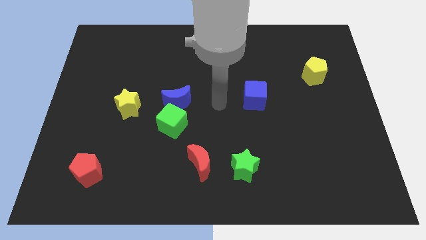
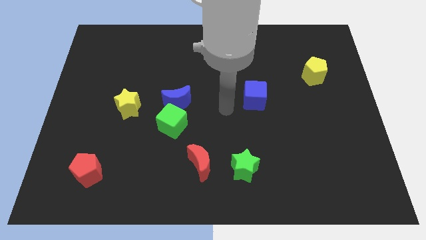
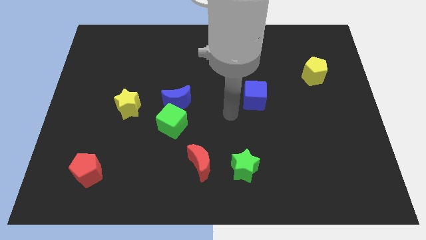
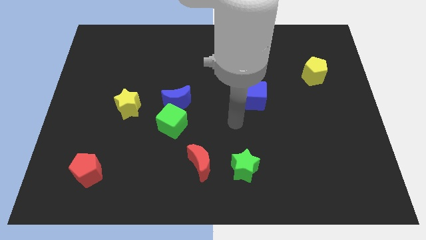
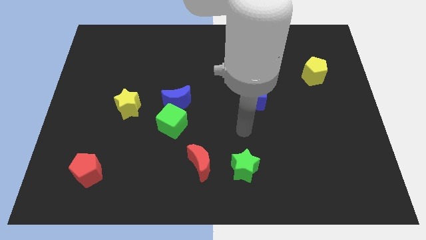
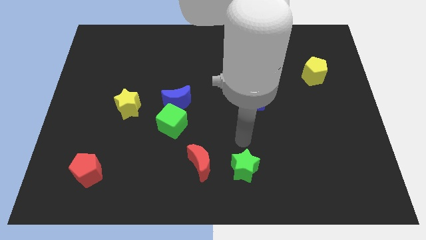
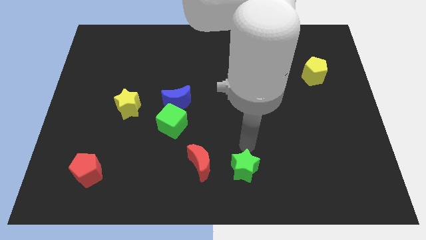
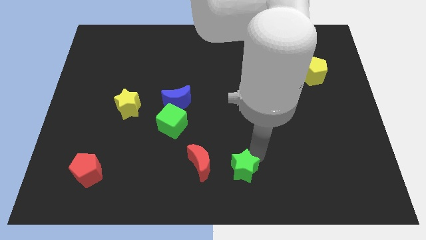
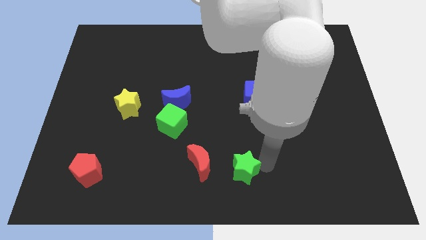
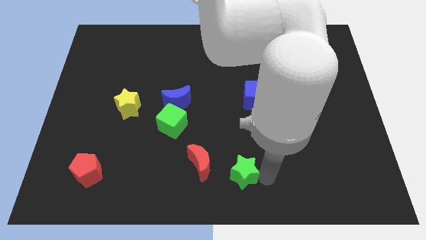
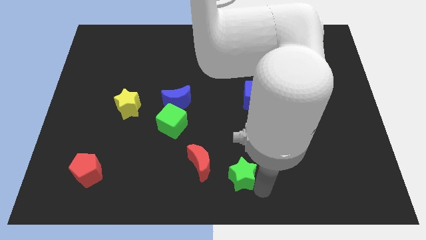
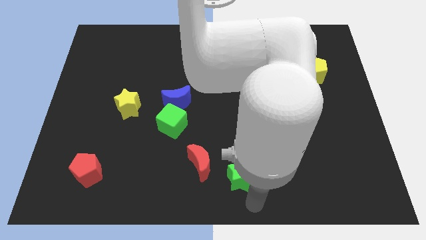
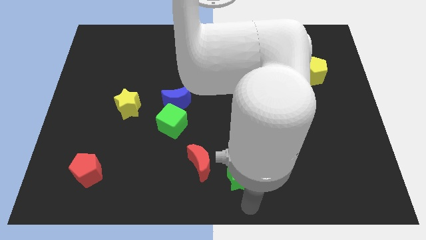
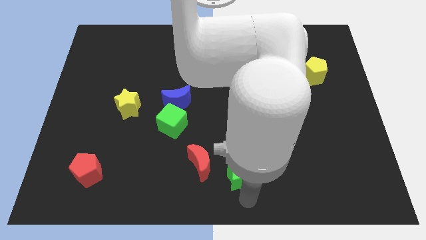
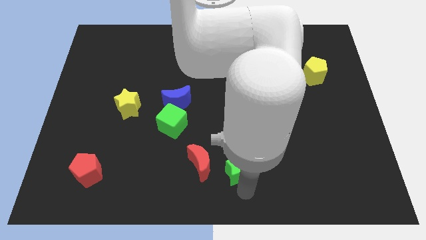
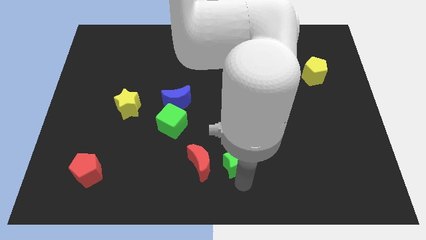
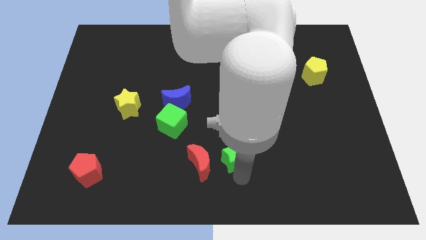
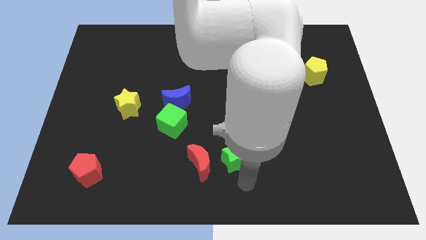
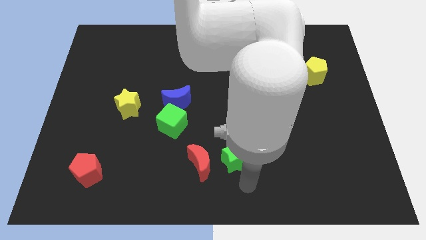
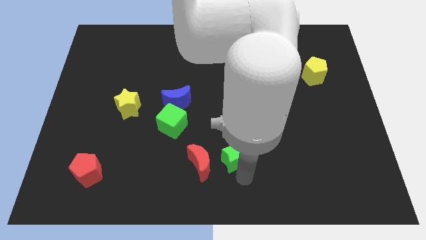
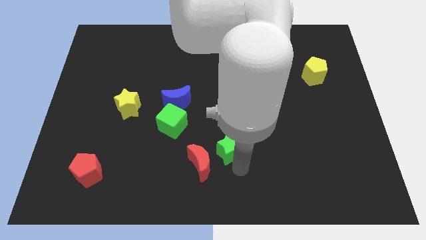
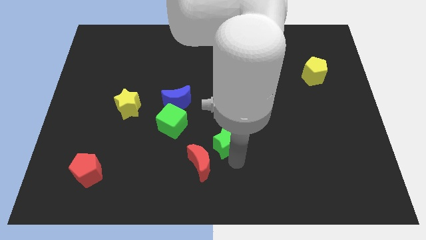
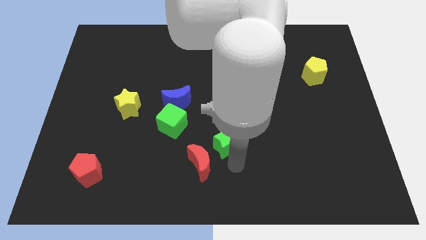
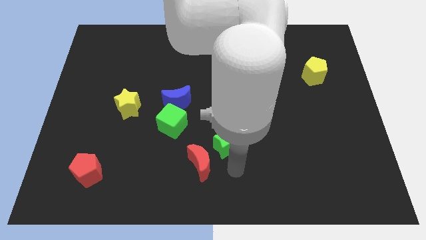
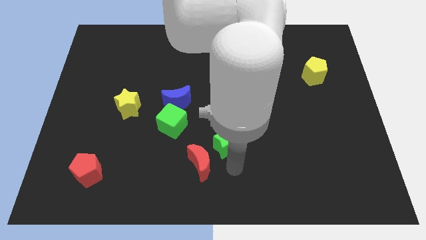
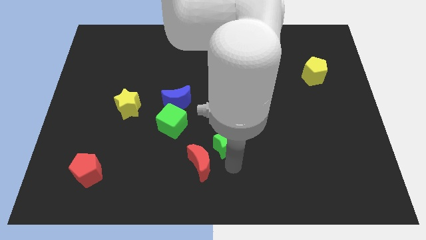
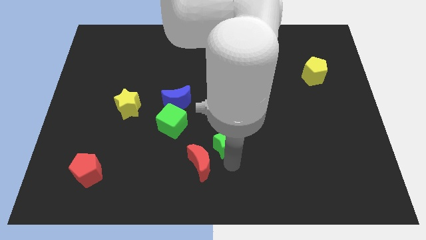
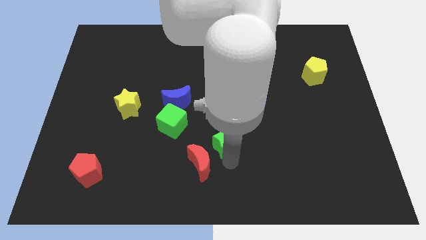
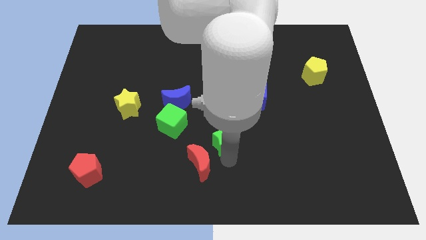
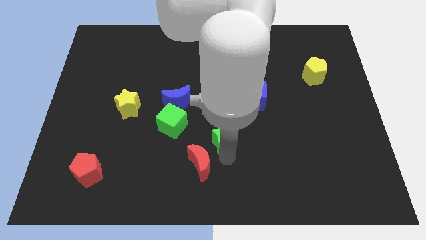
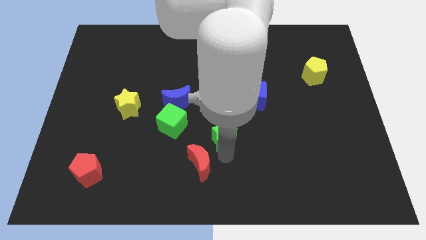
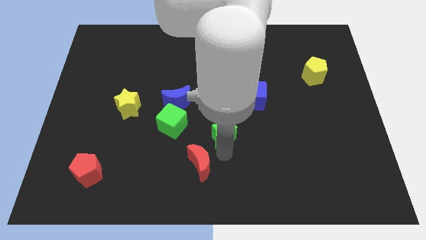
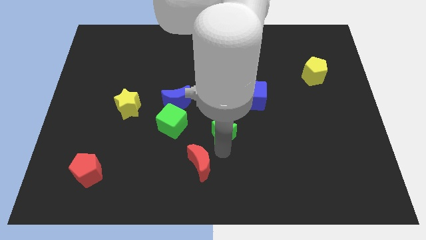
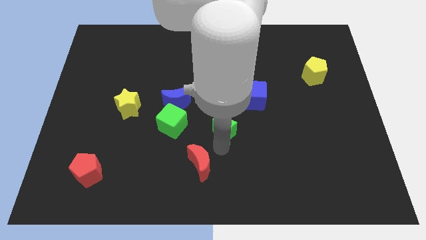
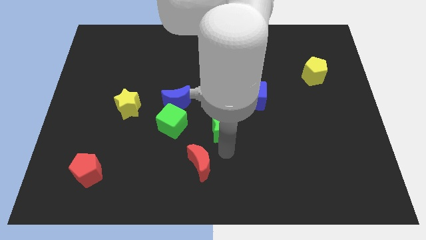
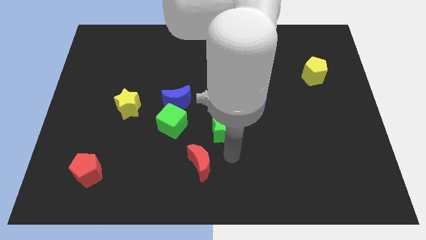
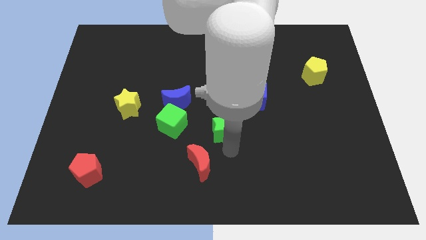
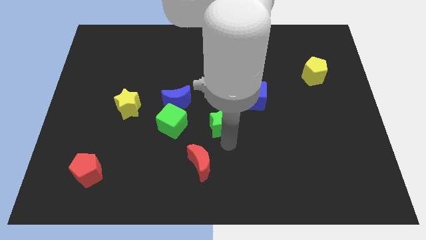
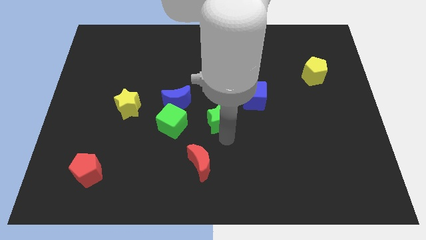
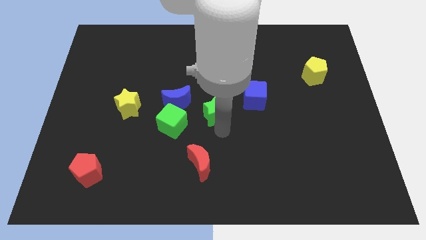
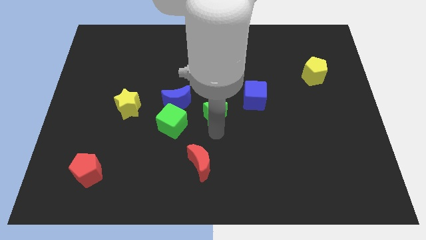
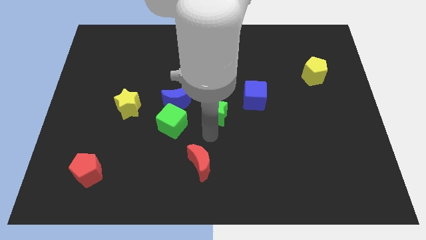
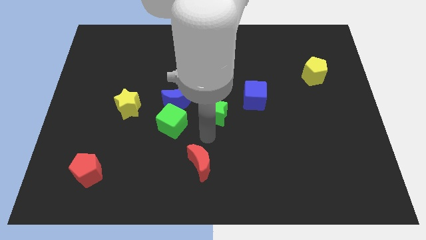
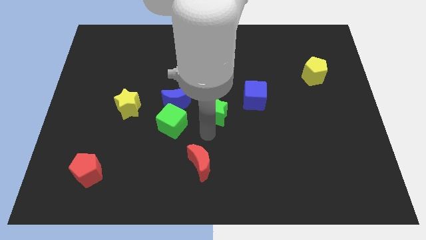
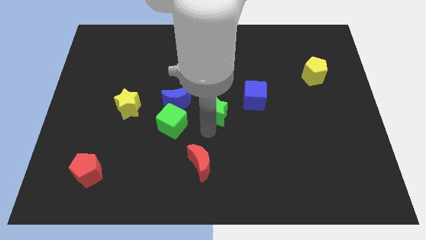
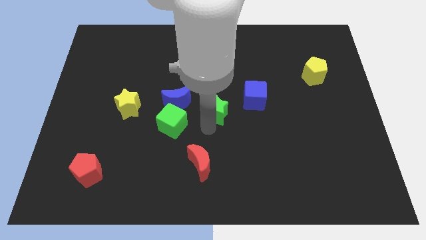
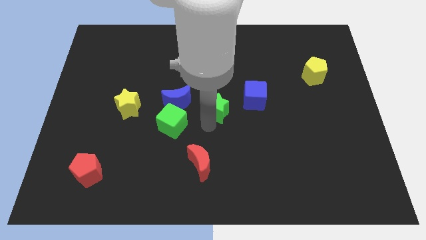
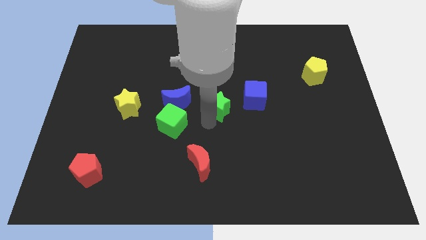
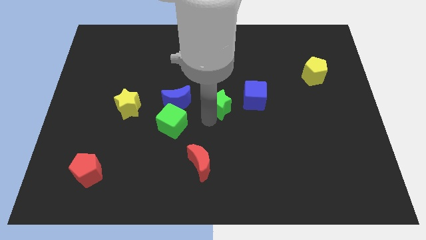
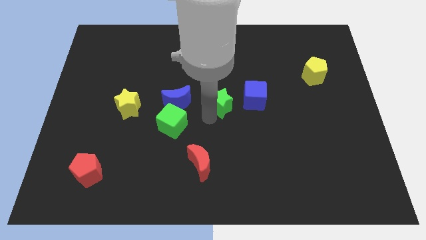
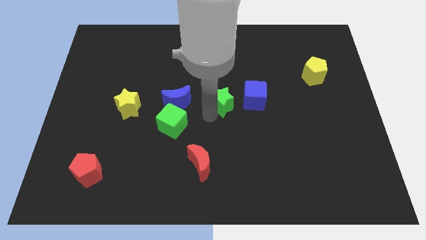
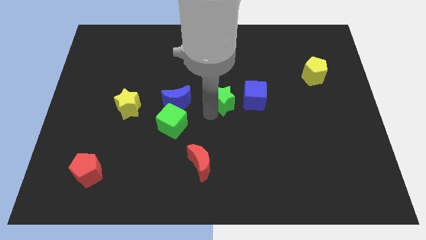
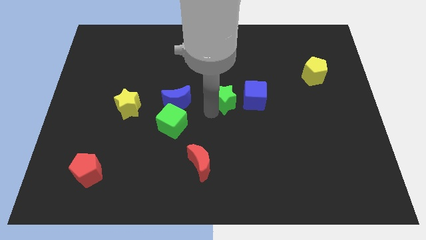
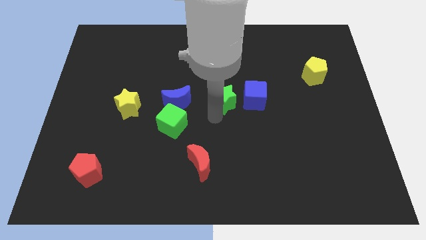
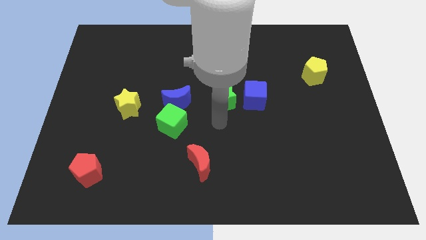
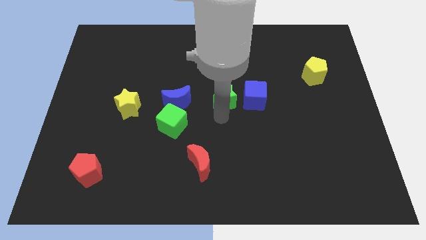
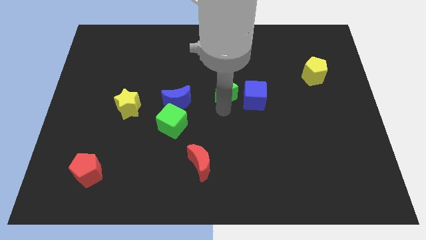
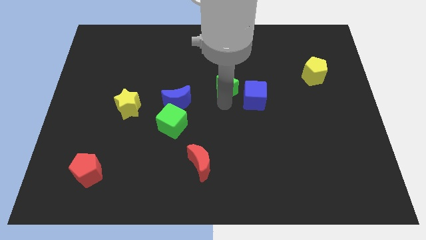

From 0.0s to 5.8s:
slide the green star up

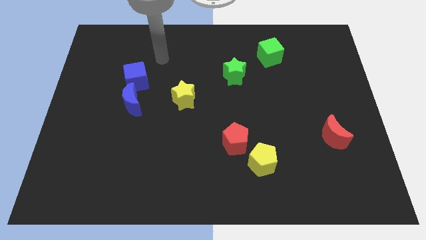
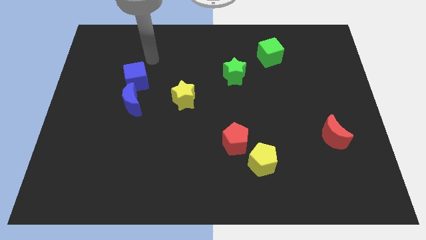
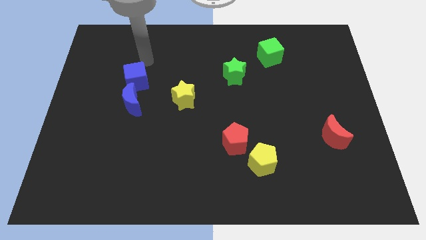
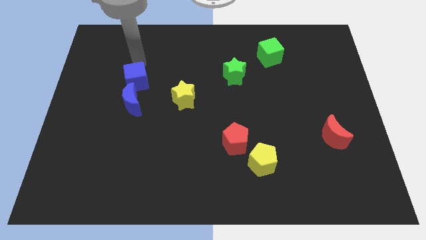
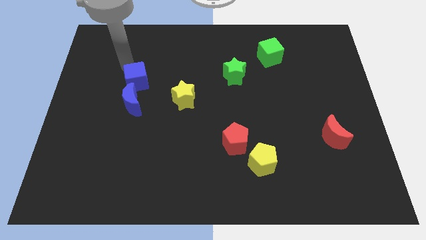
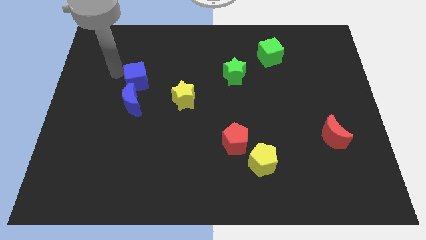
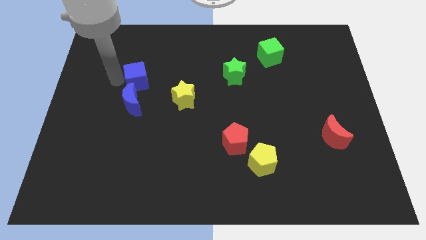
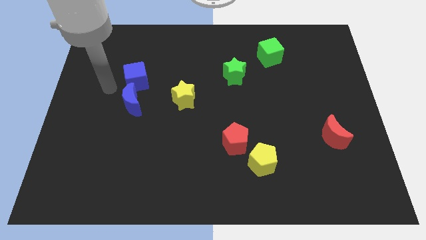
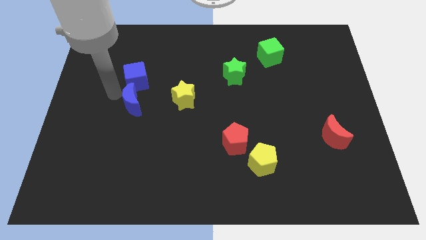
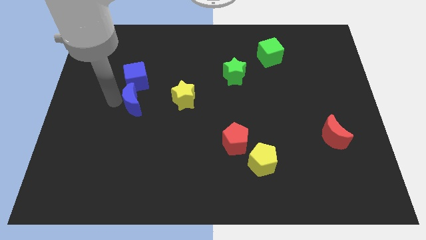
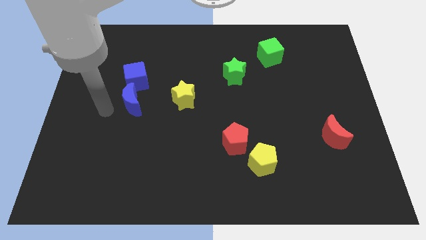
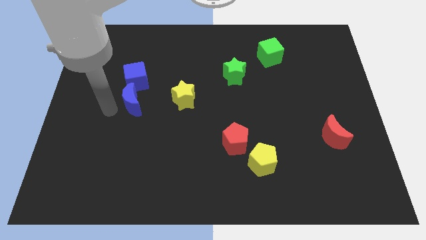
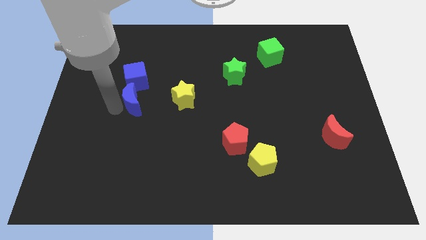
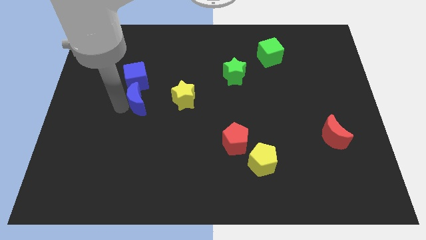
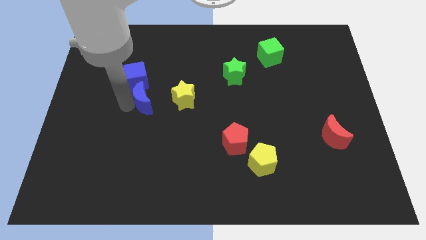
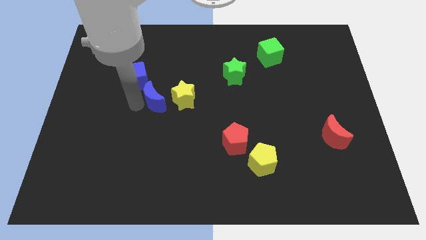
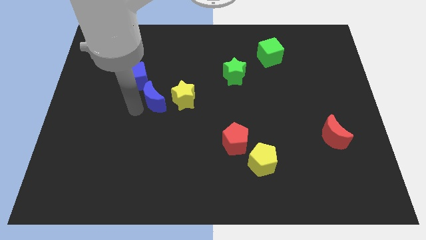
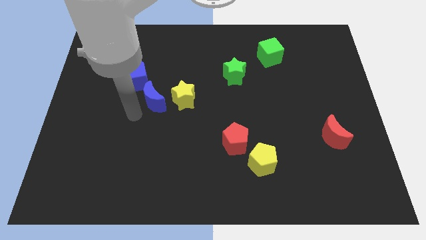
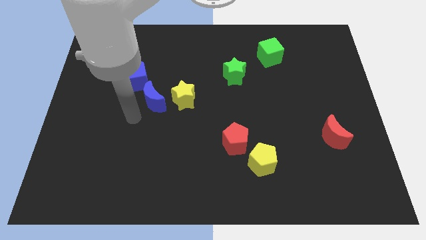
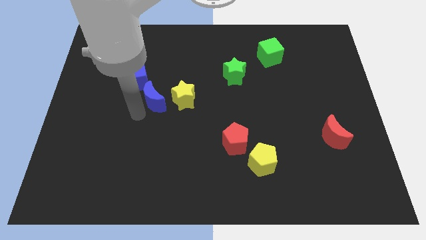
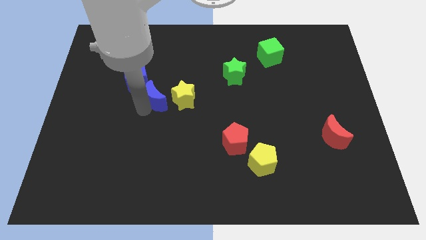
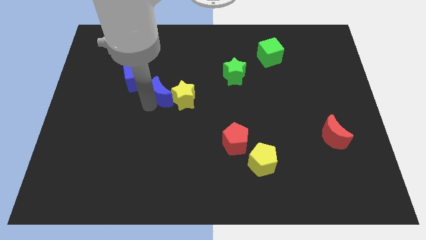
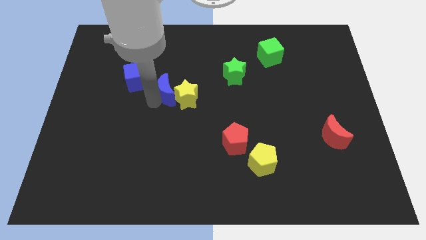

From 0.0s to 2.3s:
move the blue moon up and to the right diagonally somewhat
